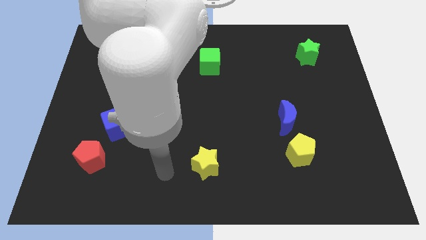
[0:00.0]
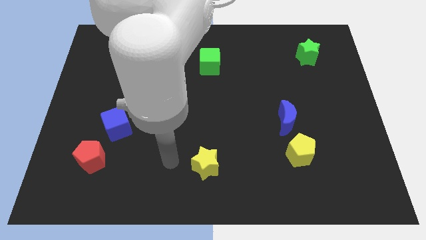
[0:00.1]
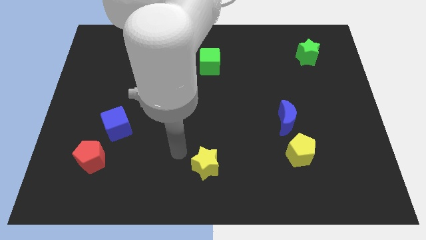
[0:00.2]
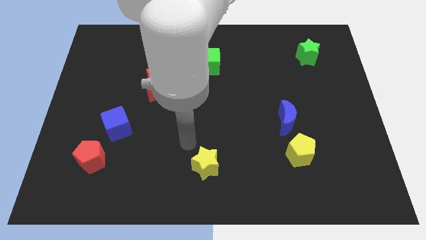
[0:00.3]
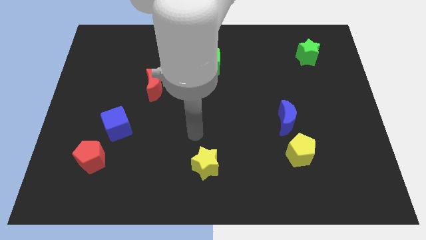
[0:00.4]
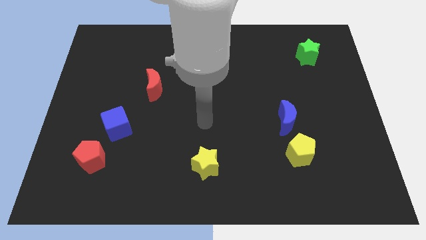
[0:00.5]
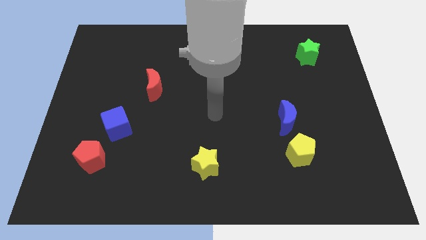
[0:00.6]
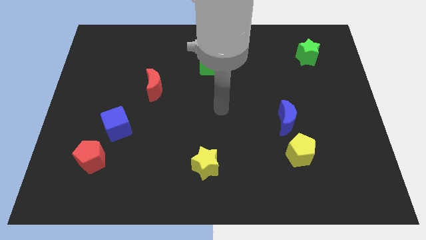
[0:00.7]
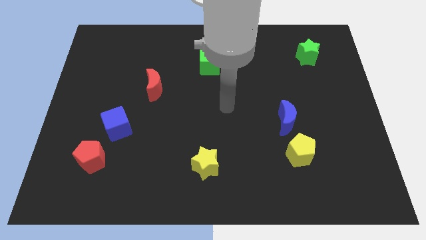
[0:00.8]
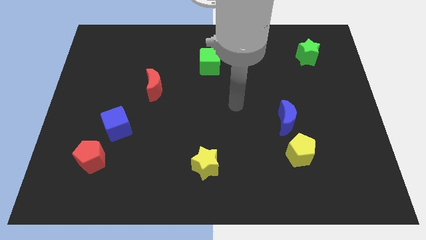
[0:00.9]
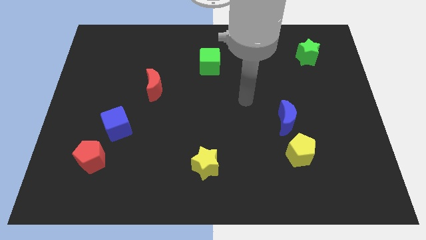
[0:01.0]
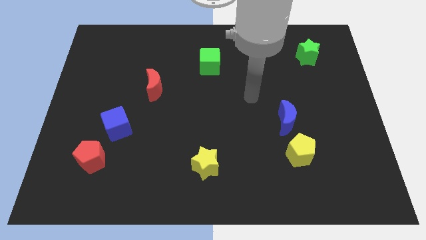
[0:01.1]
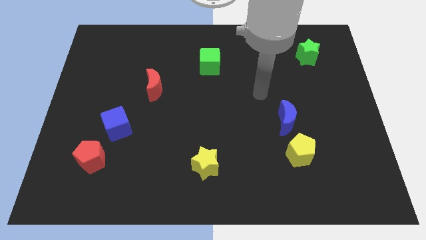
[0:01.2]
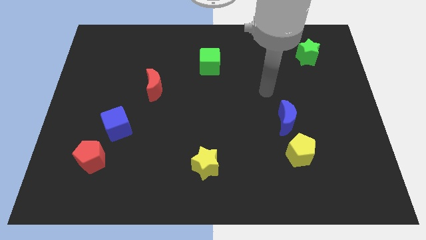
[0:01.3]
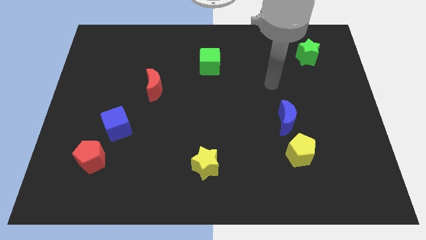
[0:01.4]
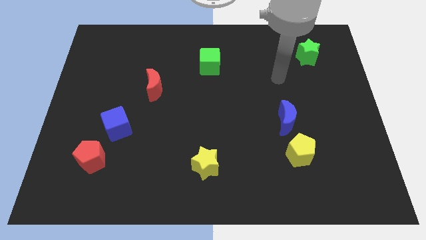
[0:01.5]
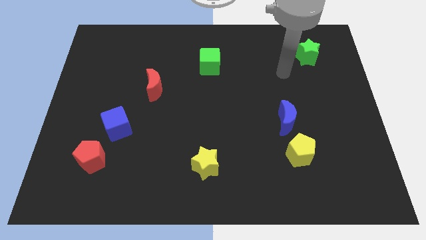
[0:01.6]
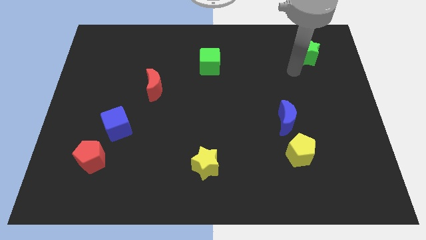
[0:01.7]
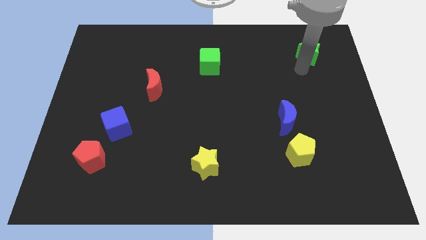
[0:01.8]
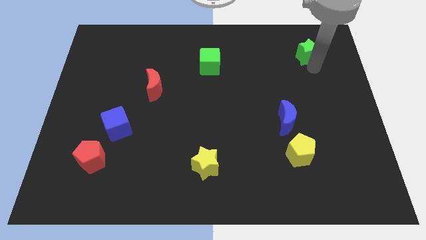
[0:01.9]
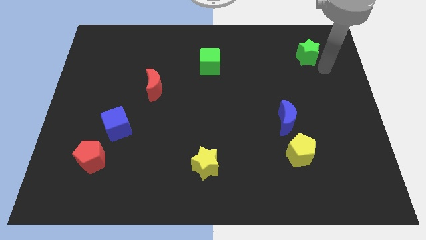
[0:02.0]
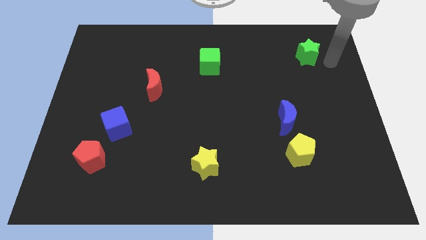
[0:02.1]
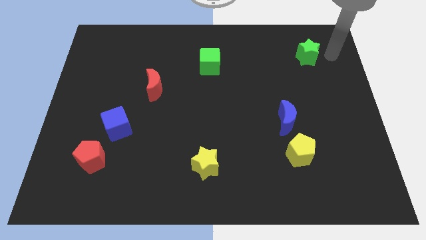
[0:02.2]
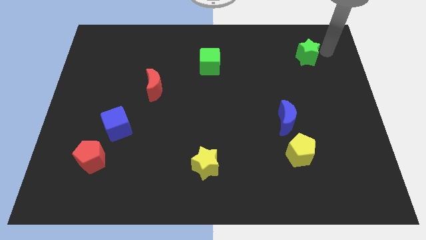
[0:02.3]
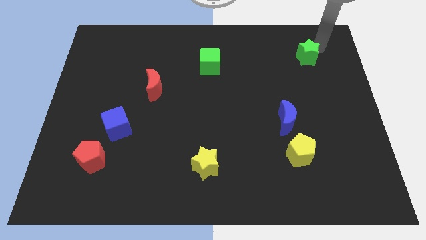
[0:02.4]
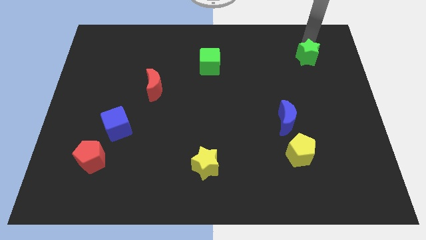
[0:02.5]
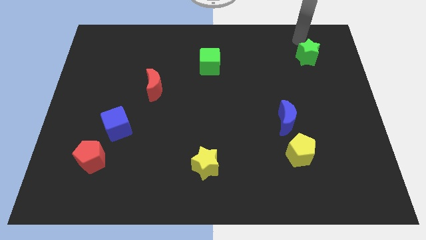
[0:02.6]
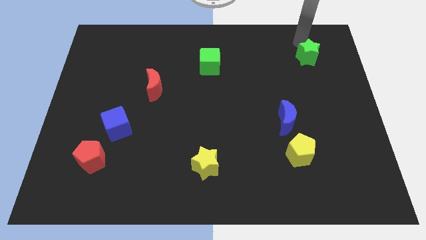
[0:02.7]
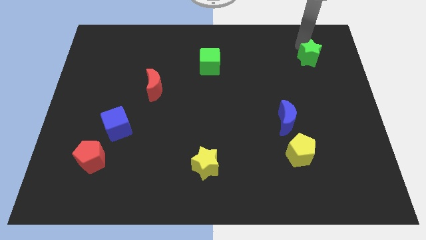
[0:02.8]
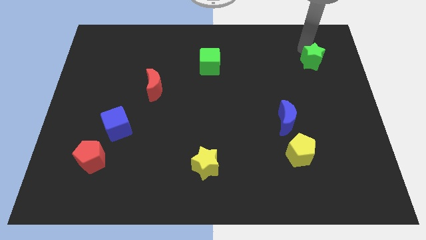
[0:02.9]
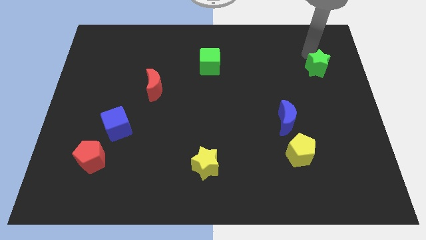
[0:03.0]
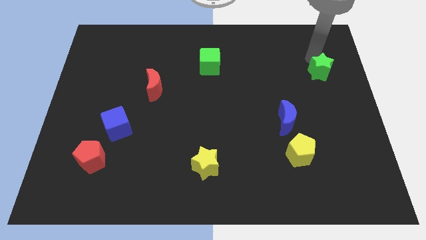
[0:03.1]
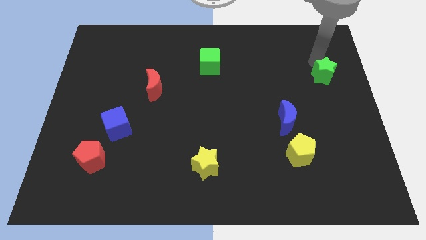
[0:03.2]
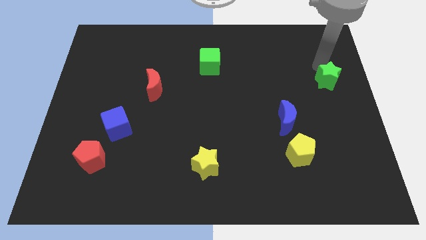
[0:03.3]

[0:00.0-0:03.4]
push the green star a little bit downwards

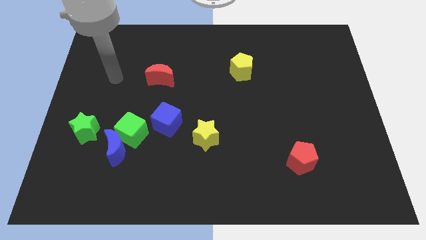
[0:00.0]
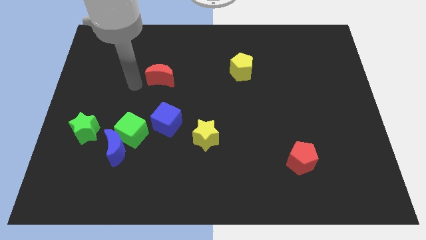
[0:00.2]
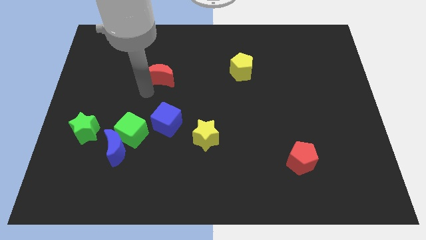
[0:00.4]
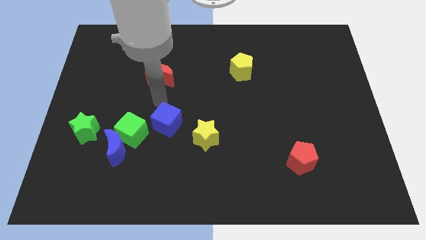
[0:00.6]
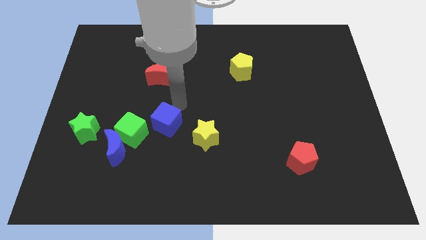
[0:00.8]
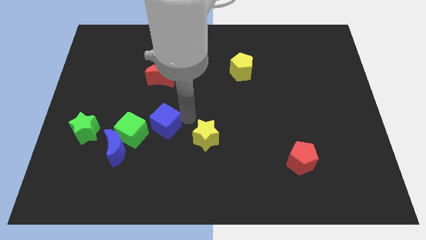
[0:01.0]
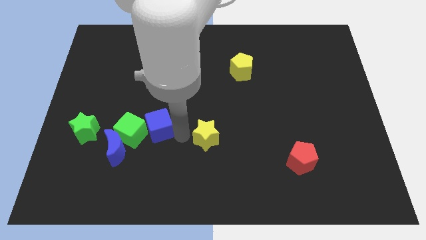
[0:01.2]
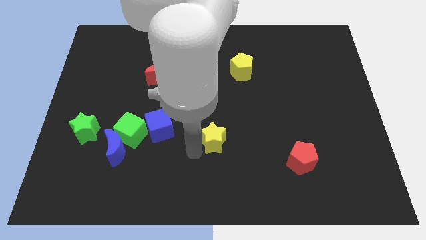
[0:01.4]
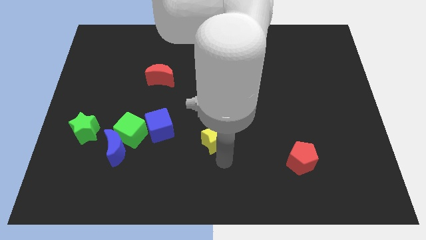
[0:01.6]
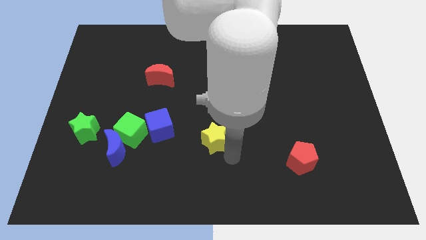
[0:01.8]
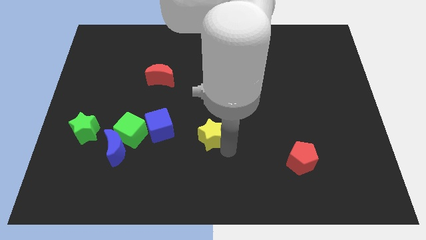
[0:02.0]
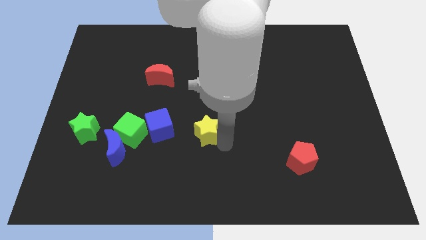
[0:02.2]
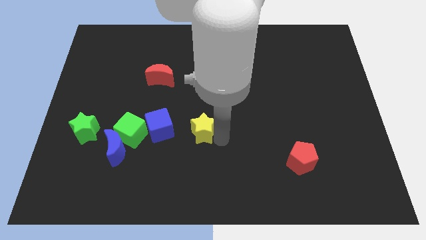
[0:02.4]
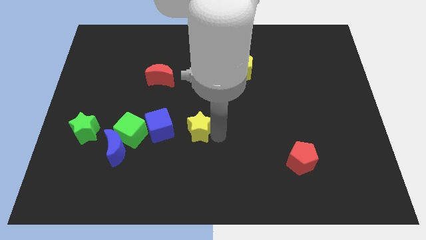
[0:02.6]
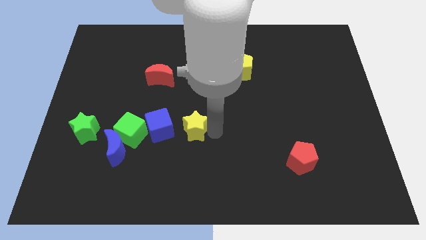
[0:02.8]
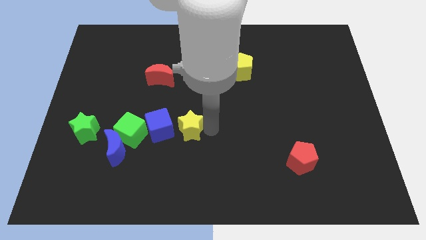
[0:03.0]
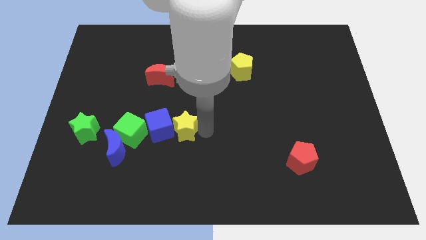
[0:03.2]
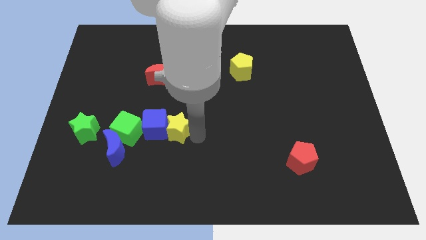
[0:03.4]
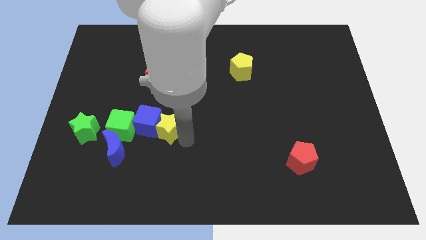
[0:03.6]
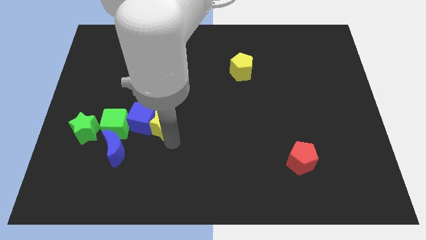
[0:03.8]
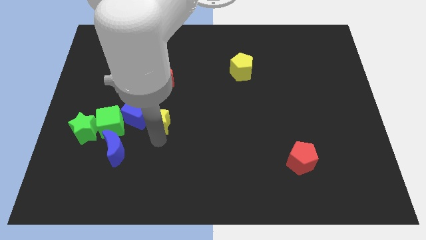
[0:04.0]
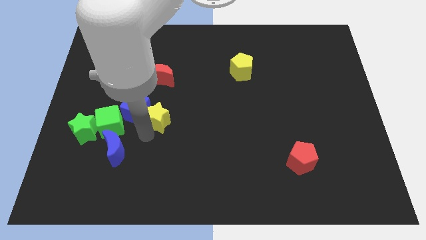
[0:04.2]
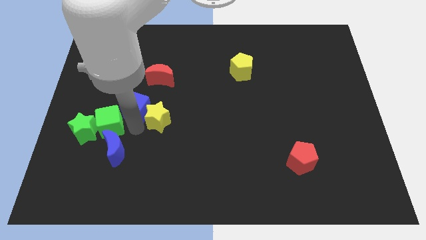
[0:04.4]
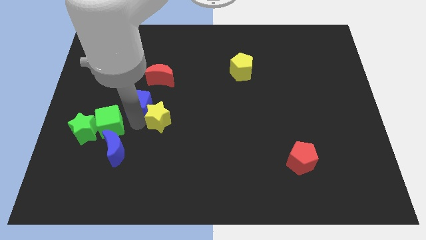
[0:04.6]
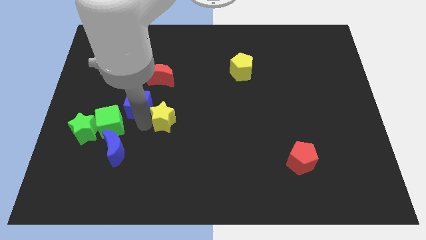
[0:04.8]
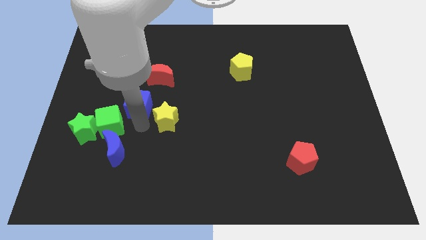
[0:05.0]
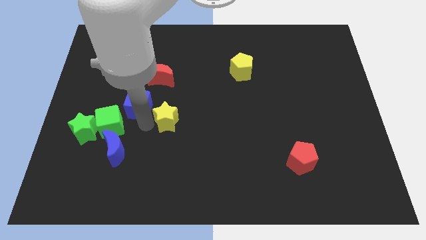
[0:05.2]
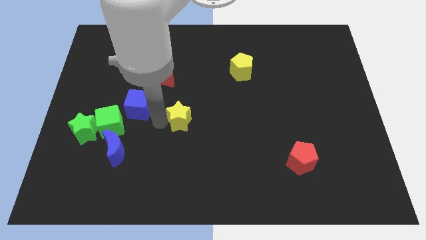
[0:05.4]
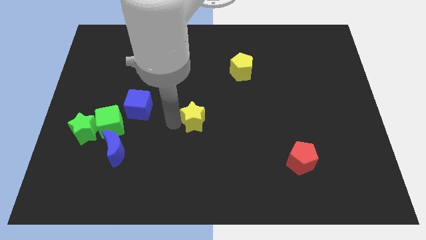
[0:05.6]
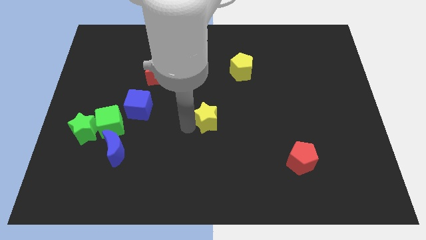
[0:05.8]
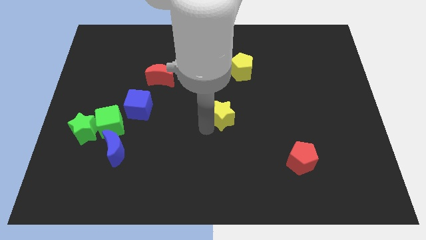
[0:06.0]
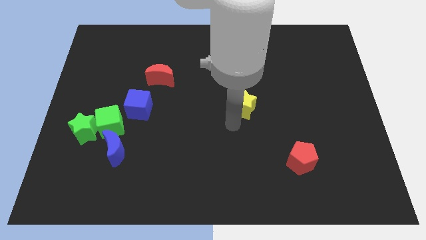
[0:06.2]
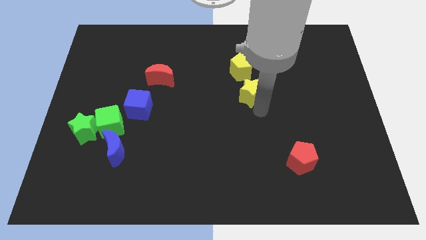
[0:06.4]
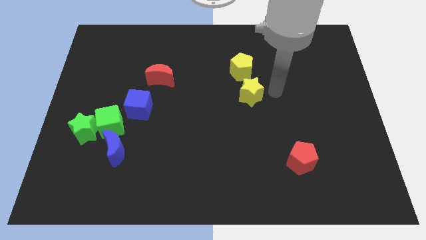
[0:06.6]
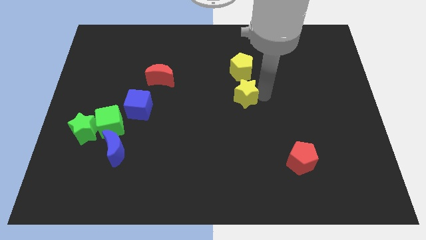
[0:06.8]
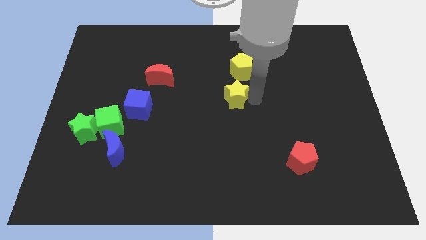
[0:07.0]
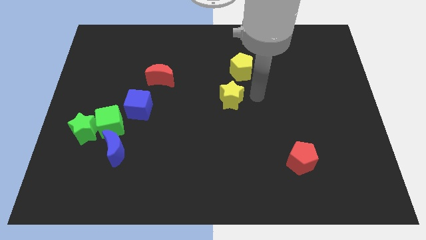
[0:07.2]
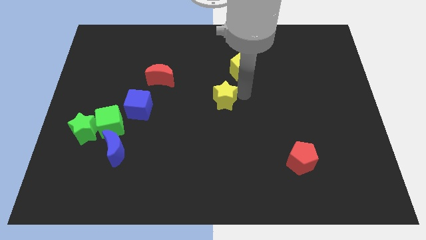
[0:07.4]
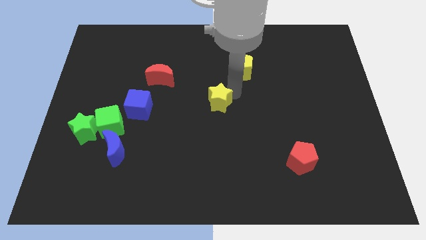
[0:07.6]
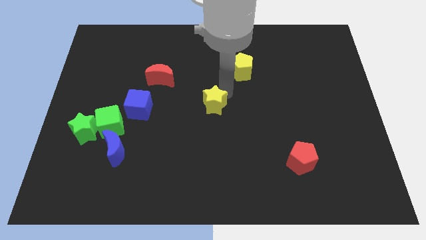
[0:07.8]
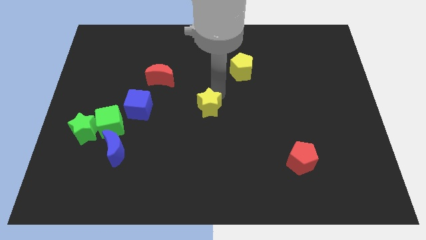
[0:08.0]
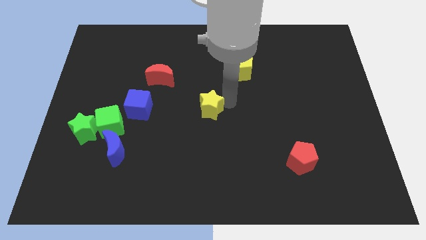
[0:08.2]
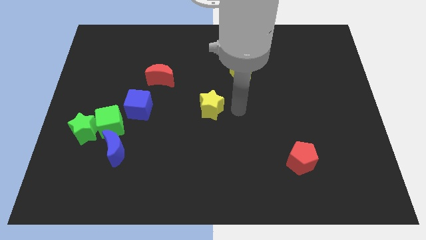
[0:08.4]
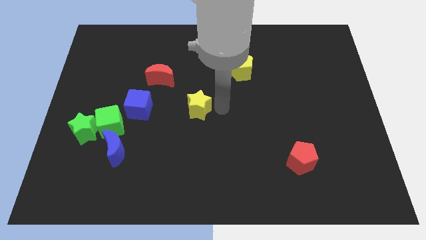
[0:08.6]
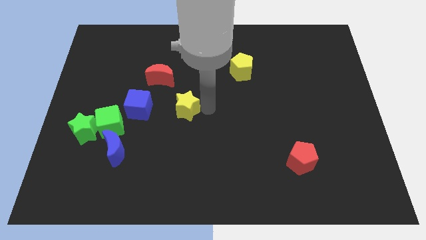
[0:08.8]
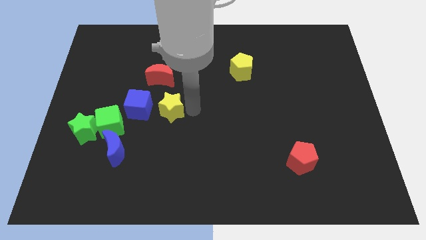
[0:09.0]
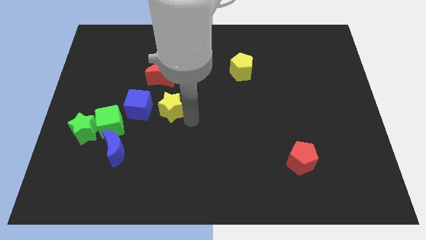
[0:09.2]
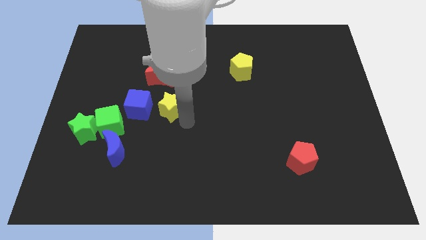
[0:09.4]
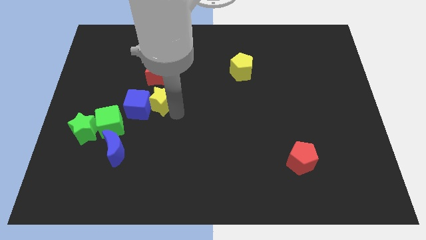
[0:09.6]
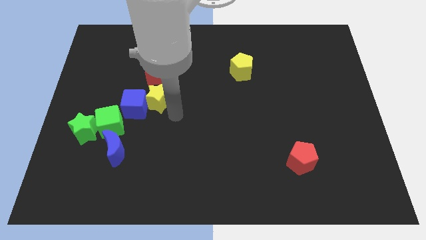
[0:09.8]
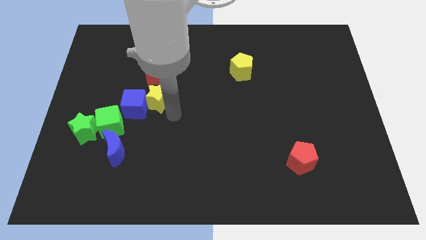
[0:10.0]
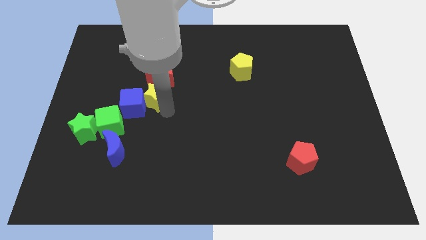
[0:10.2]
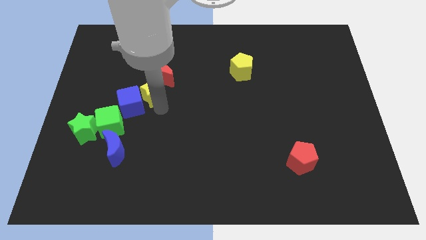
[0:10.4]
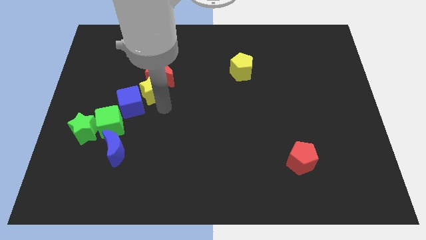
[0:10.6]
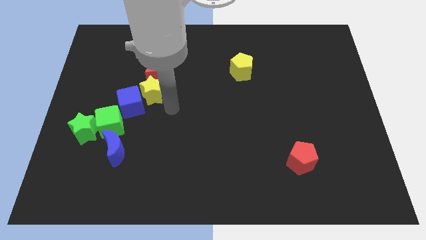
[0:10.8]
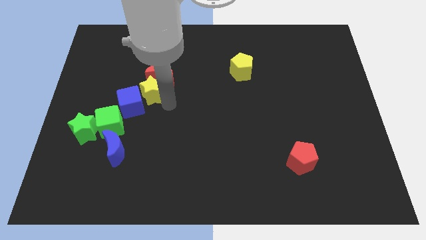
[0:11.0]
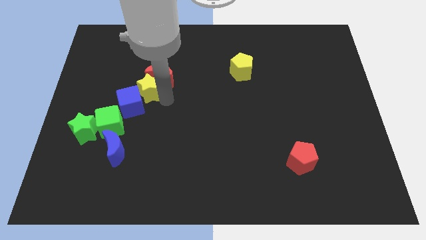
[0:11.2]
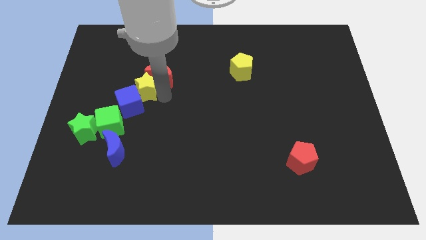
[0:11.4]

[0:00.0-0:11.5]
slide the yellow star diagonally upwards and to the left
